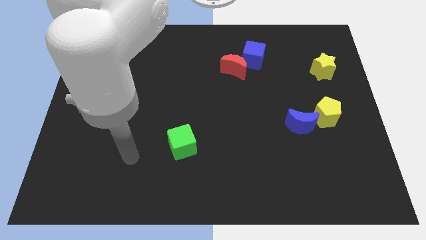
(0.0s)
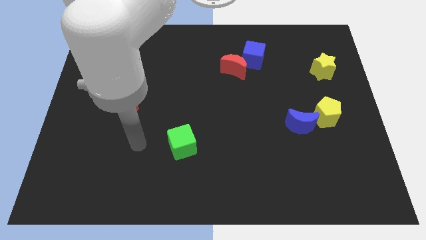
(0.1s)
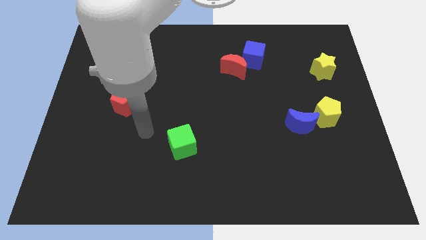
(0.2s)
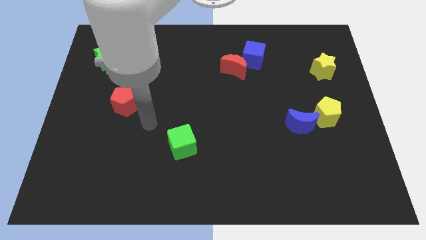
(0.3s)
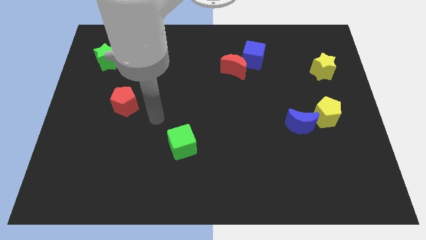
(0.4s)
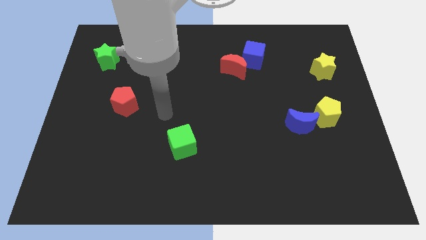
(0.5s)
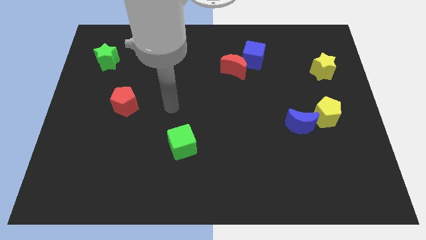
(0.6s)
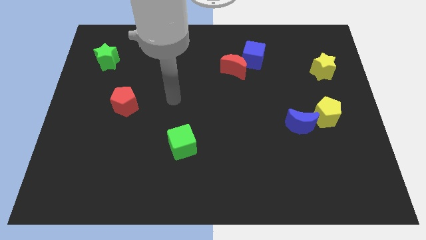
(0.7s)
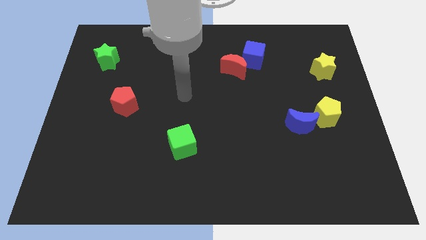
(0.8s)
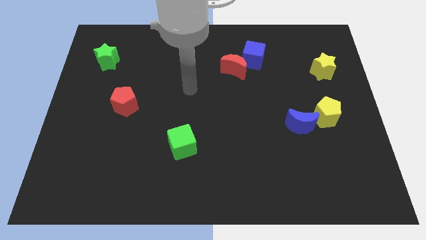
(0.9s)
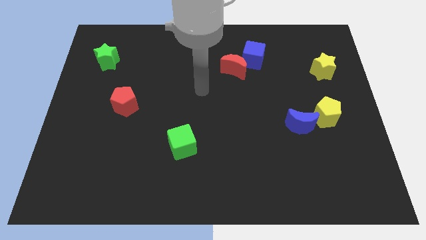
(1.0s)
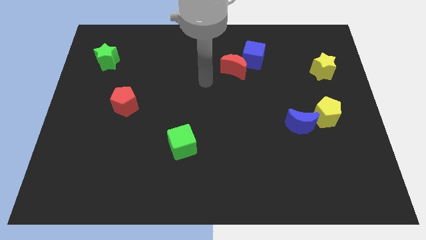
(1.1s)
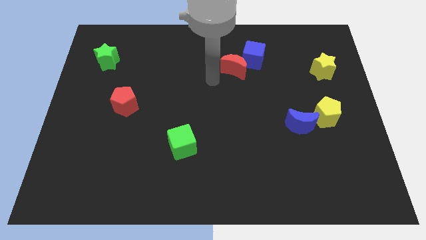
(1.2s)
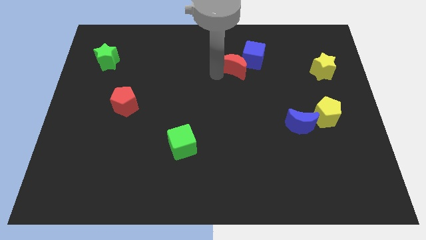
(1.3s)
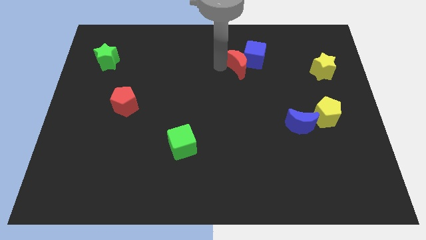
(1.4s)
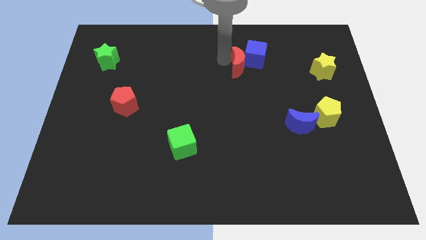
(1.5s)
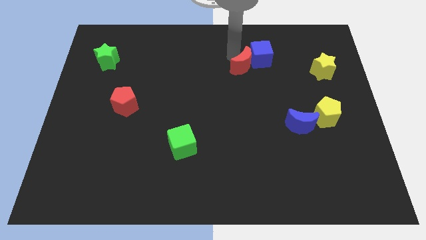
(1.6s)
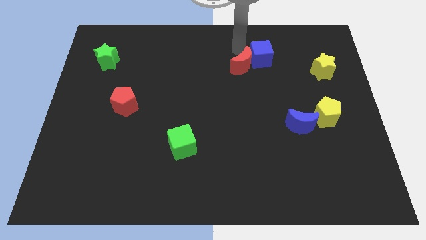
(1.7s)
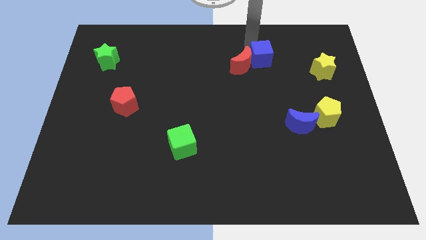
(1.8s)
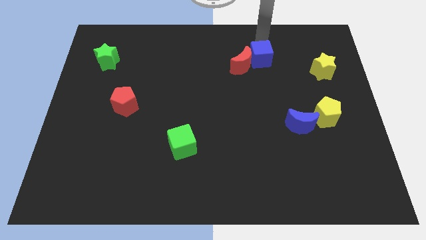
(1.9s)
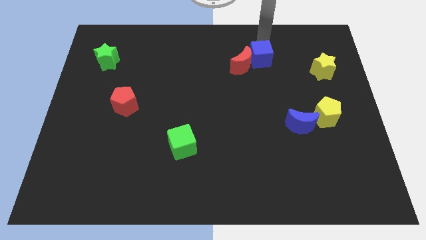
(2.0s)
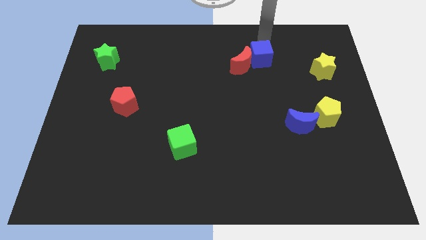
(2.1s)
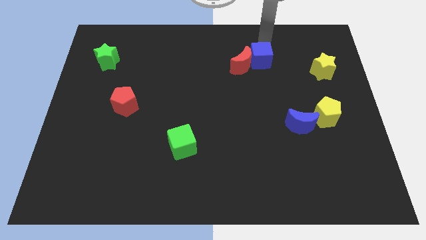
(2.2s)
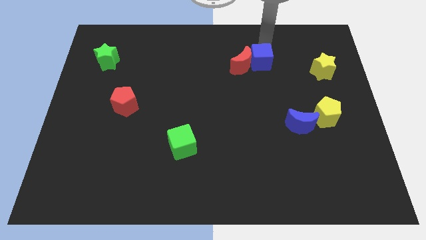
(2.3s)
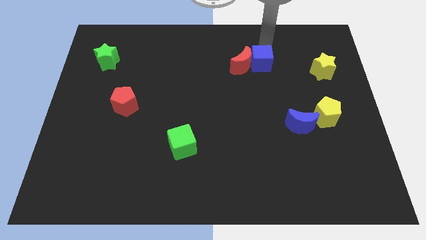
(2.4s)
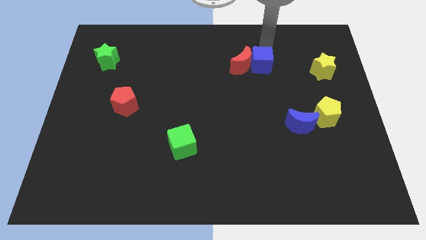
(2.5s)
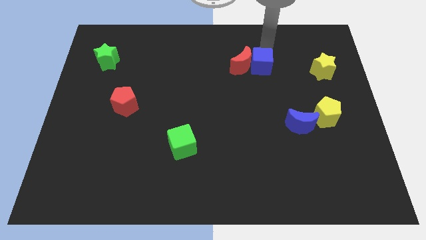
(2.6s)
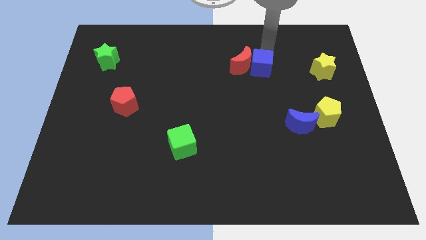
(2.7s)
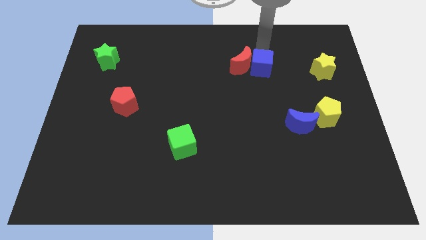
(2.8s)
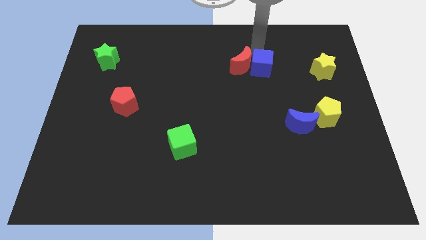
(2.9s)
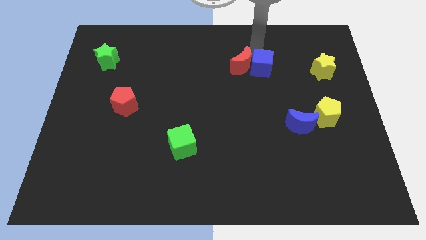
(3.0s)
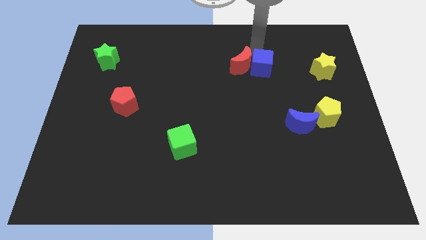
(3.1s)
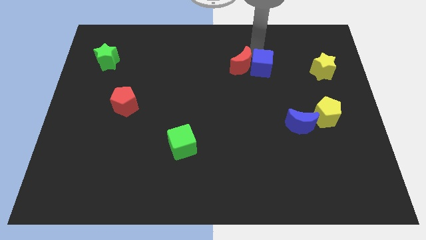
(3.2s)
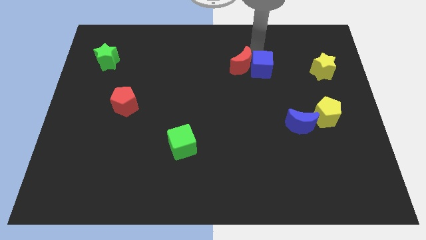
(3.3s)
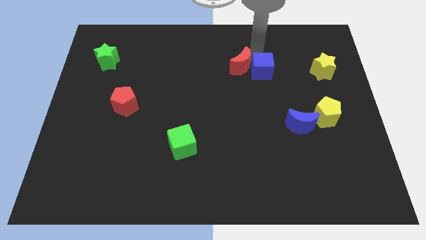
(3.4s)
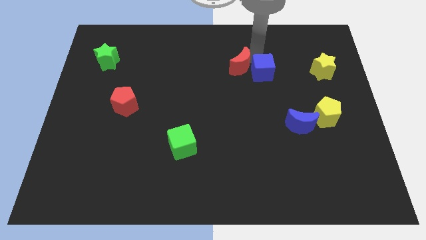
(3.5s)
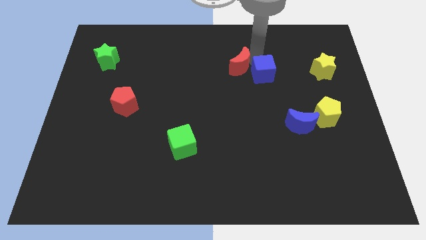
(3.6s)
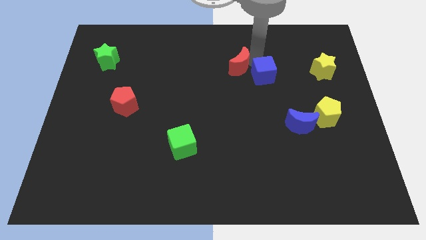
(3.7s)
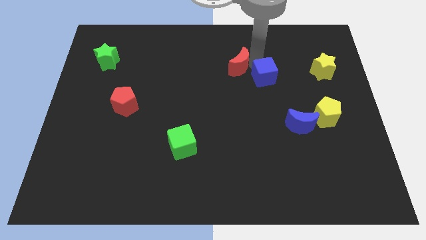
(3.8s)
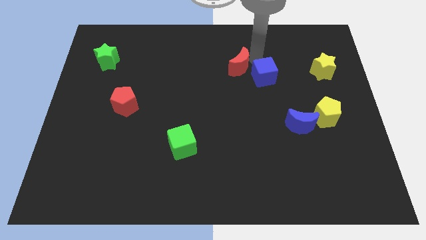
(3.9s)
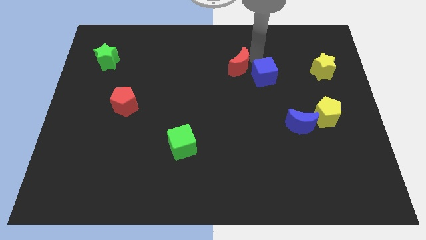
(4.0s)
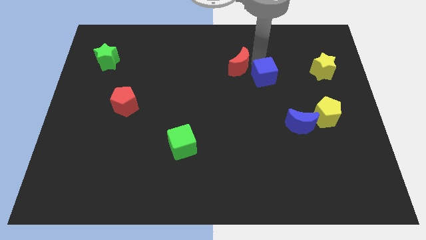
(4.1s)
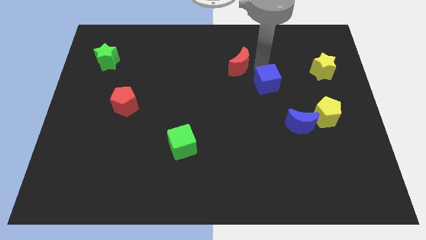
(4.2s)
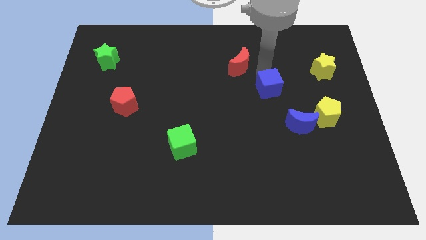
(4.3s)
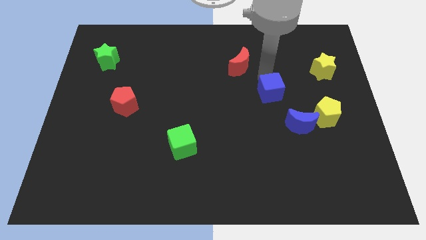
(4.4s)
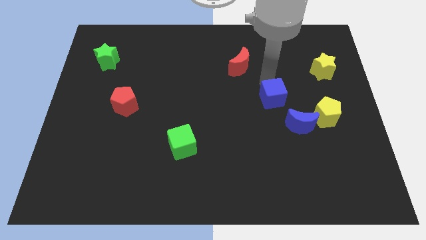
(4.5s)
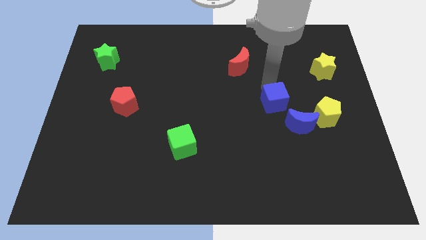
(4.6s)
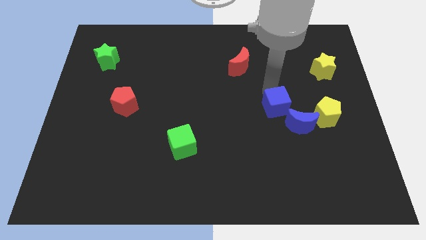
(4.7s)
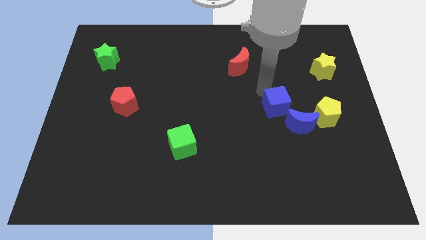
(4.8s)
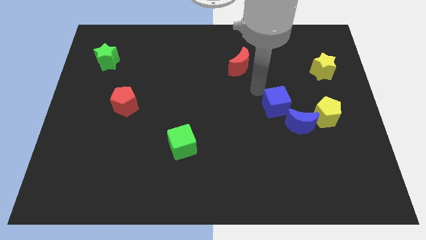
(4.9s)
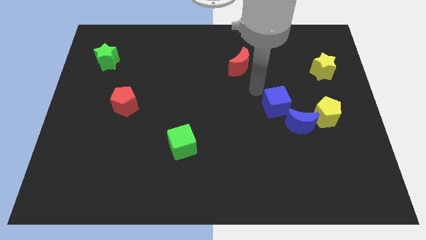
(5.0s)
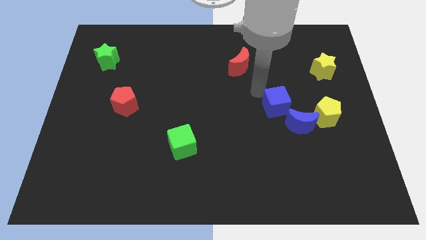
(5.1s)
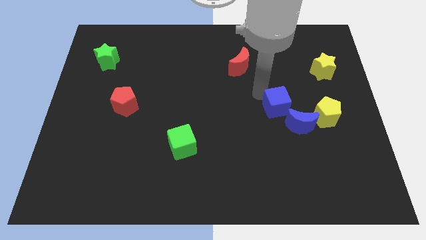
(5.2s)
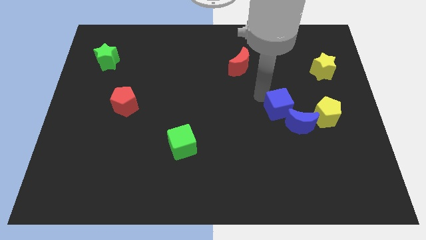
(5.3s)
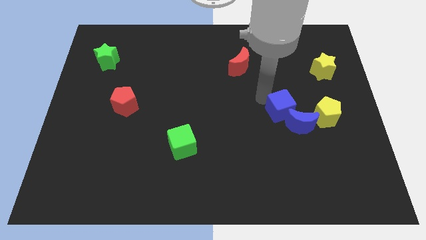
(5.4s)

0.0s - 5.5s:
put the blue cube to the blue moon

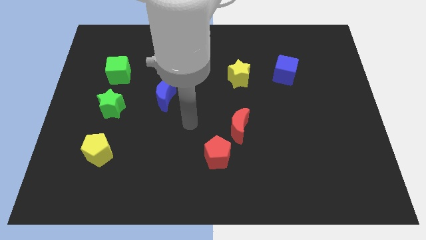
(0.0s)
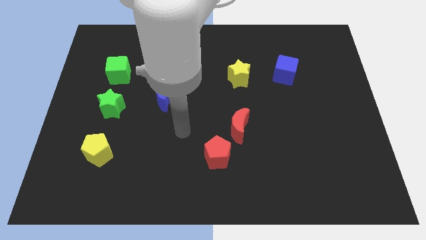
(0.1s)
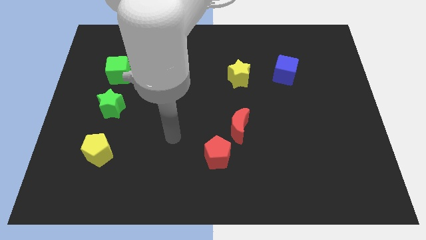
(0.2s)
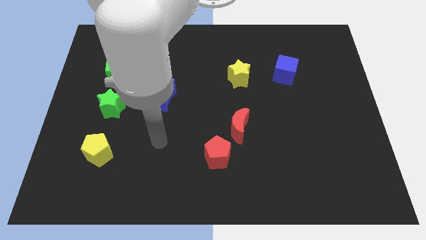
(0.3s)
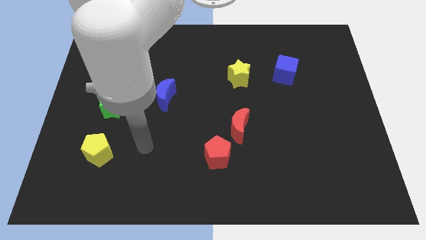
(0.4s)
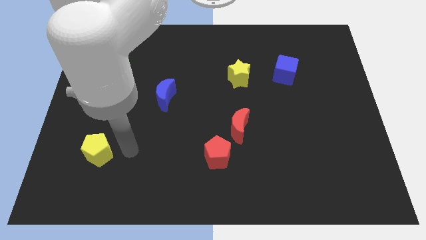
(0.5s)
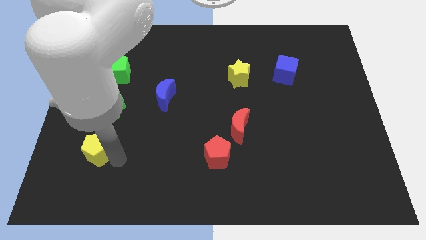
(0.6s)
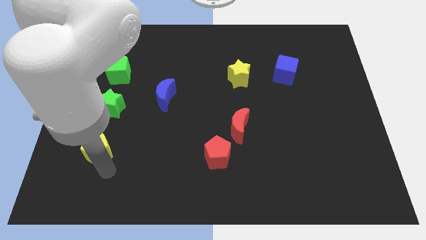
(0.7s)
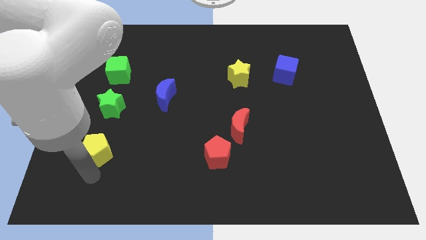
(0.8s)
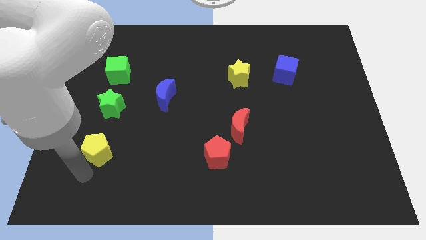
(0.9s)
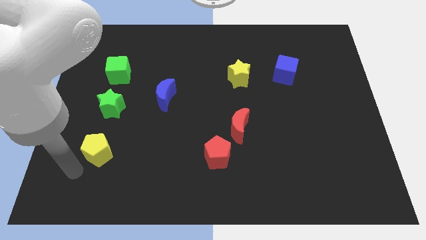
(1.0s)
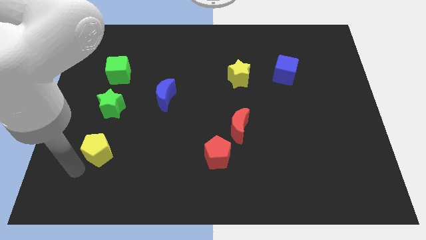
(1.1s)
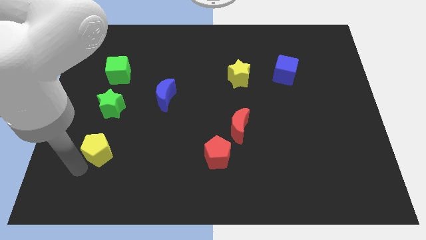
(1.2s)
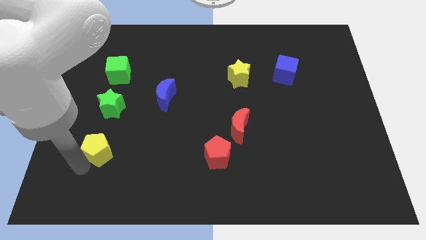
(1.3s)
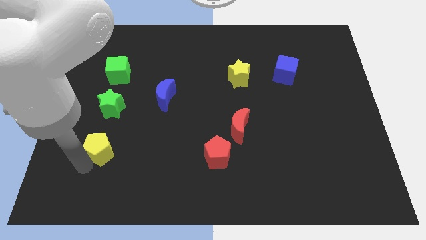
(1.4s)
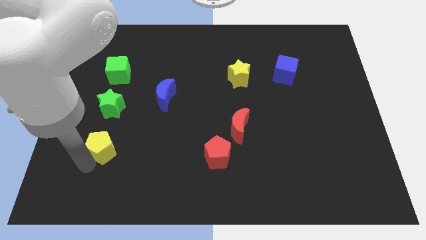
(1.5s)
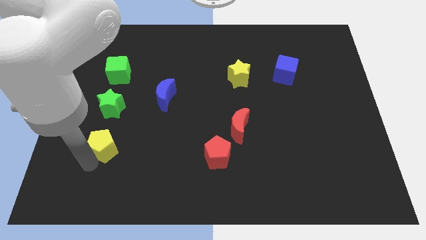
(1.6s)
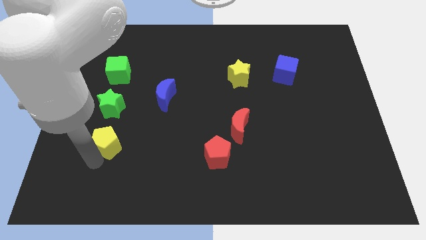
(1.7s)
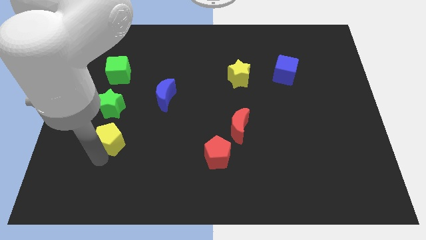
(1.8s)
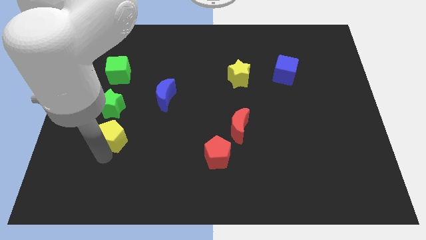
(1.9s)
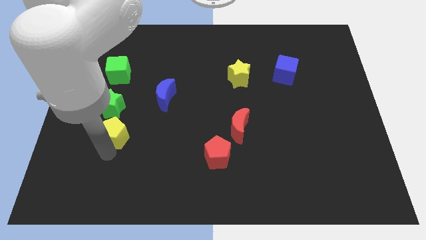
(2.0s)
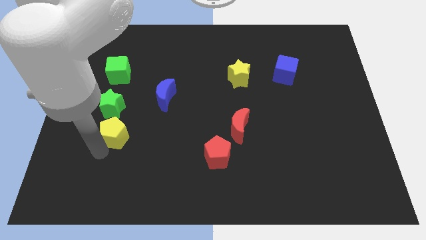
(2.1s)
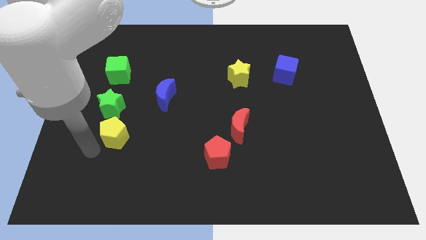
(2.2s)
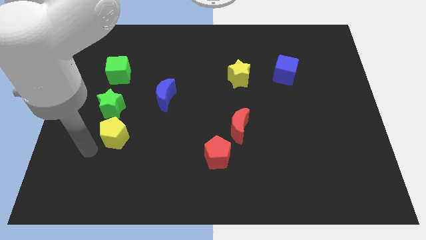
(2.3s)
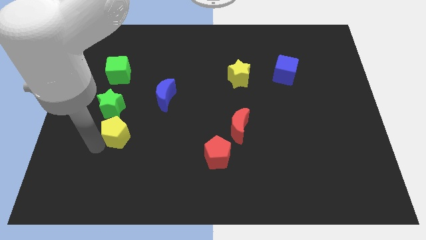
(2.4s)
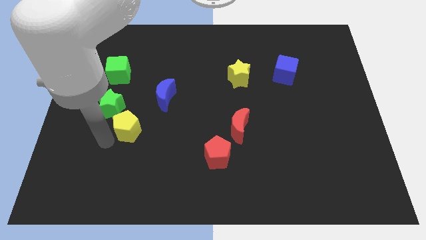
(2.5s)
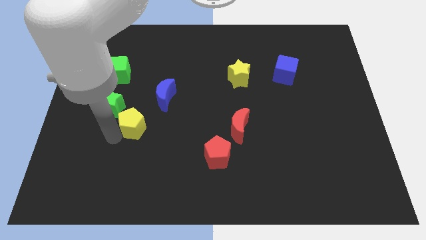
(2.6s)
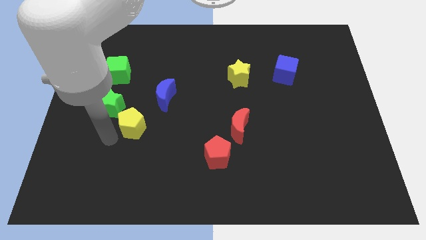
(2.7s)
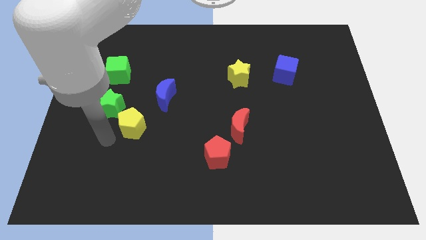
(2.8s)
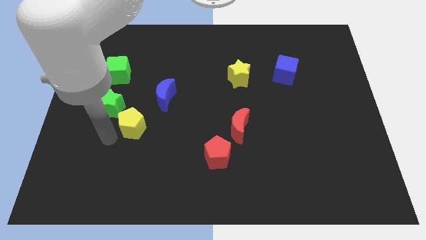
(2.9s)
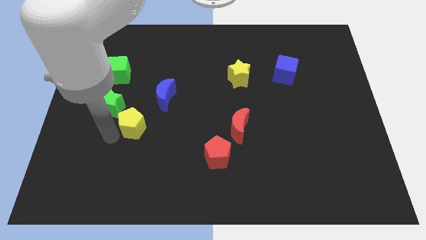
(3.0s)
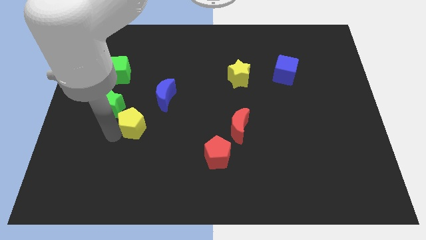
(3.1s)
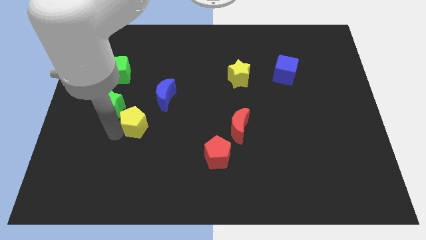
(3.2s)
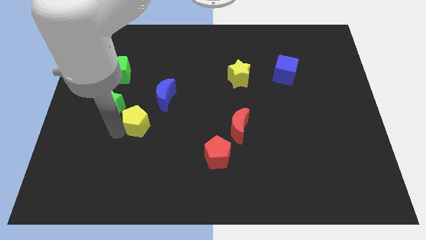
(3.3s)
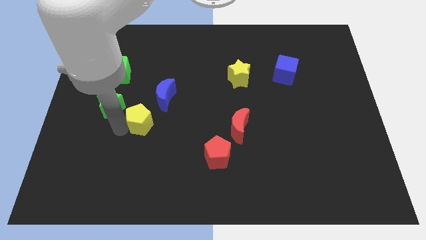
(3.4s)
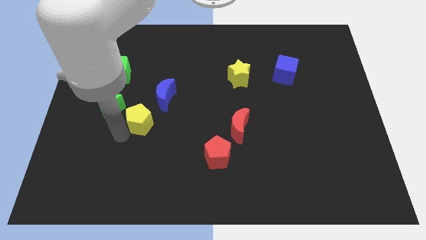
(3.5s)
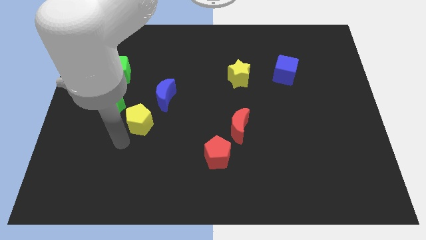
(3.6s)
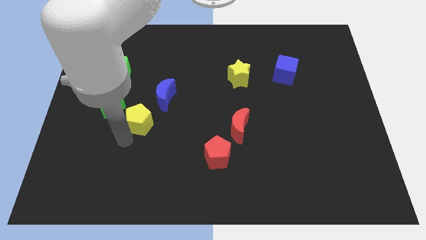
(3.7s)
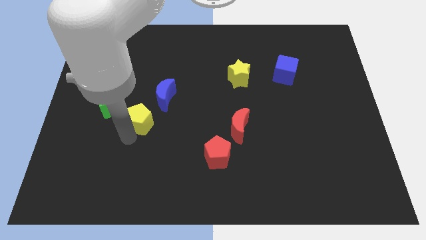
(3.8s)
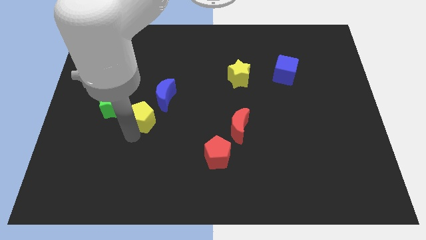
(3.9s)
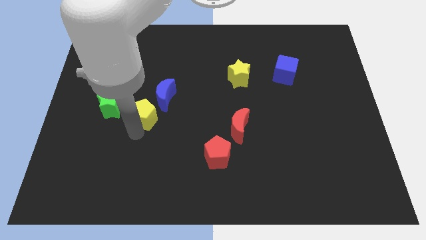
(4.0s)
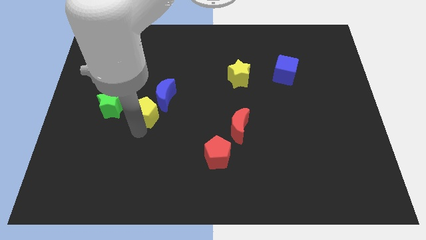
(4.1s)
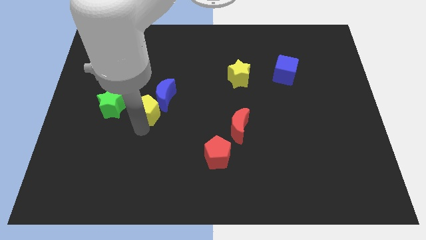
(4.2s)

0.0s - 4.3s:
put the yellow pentagon to the blue moon
